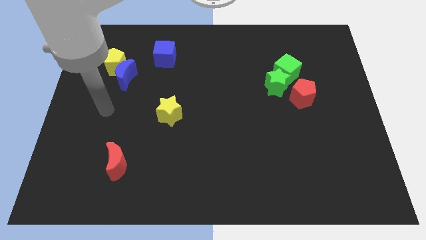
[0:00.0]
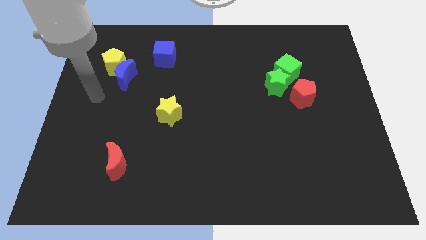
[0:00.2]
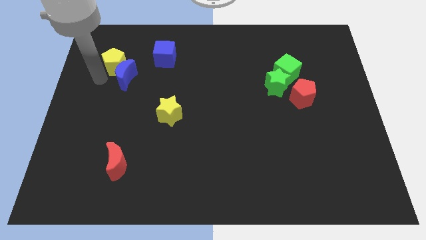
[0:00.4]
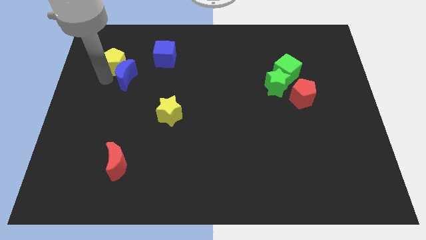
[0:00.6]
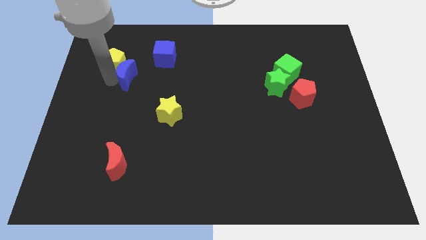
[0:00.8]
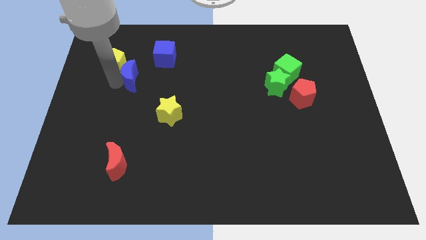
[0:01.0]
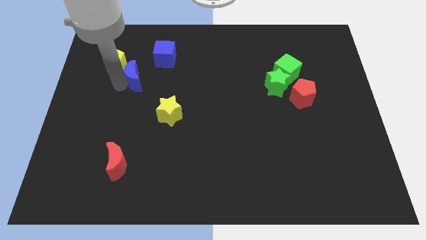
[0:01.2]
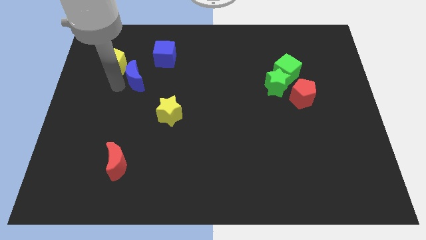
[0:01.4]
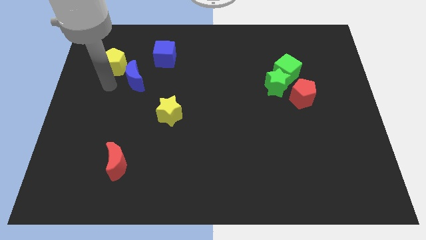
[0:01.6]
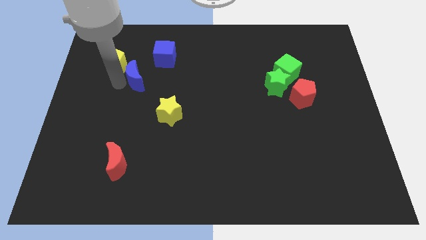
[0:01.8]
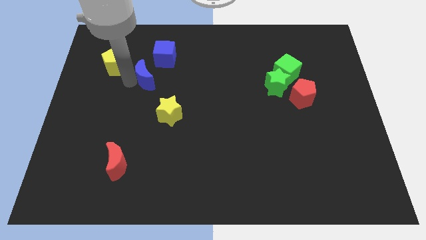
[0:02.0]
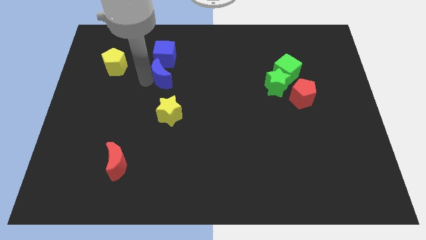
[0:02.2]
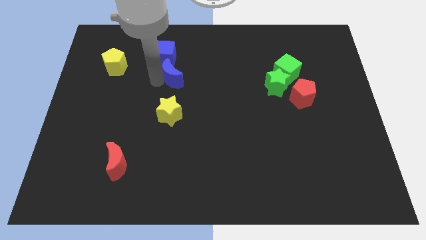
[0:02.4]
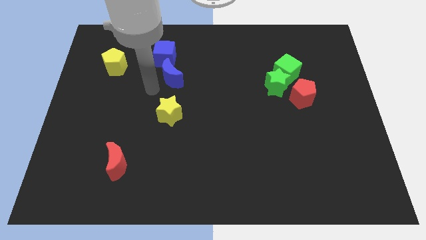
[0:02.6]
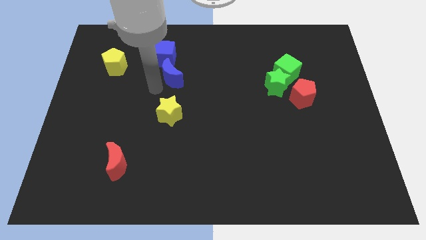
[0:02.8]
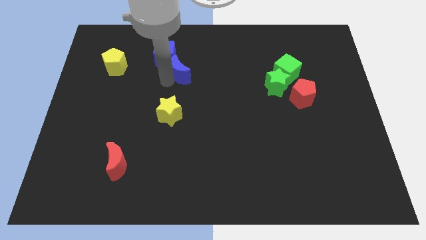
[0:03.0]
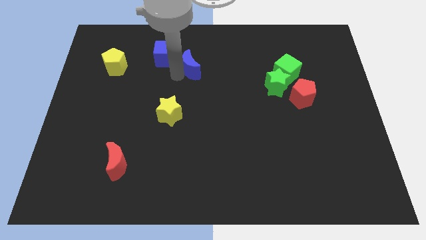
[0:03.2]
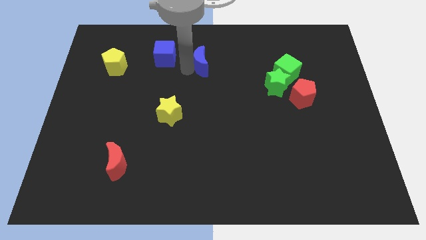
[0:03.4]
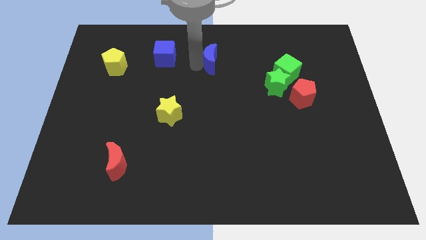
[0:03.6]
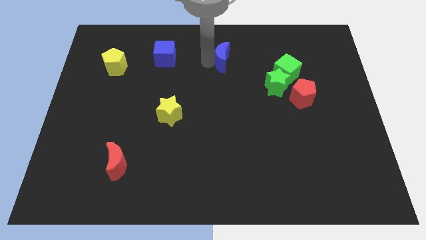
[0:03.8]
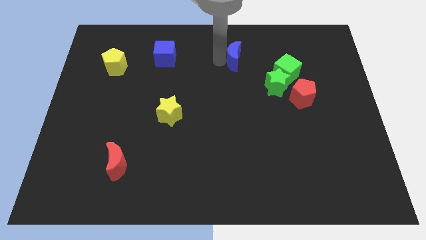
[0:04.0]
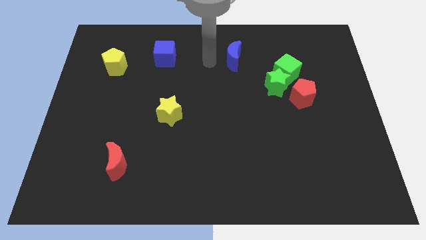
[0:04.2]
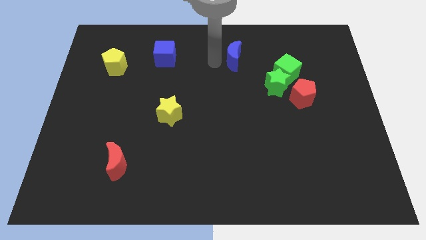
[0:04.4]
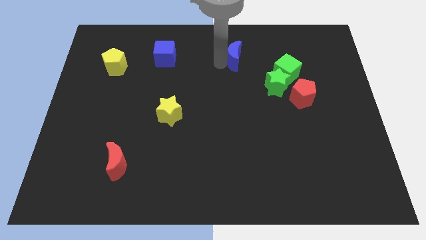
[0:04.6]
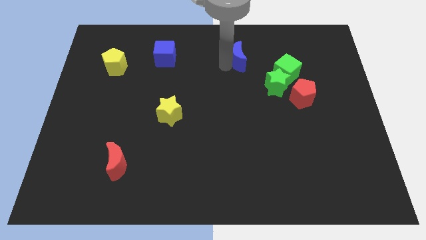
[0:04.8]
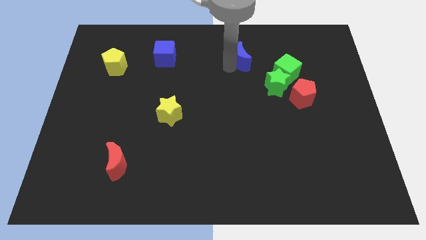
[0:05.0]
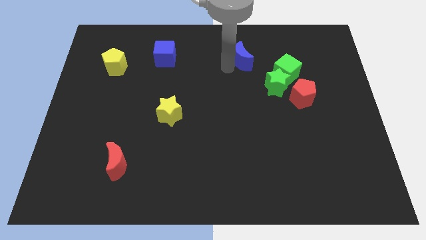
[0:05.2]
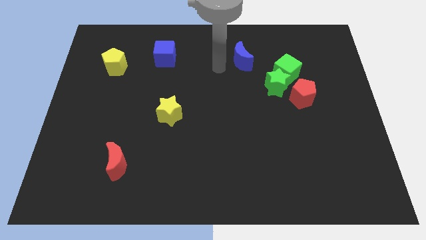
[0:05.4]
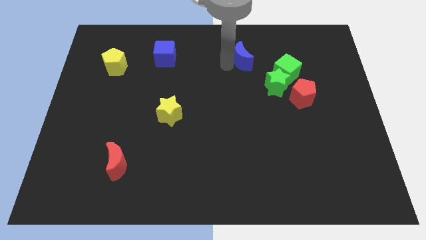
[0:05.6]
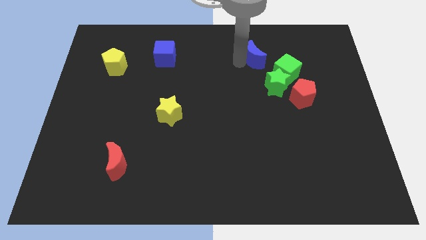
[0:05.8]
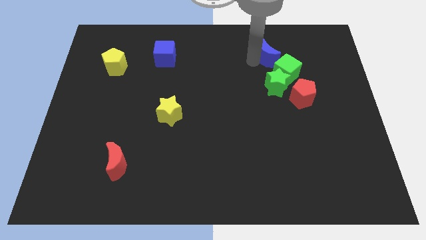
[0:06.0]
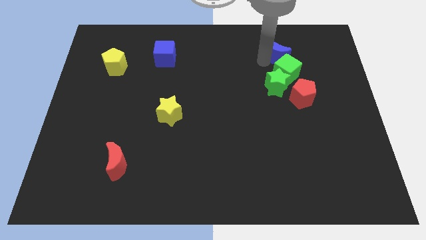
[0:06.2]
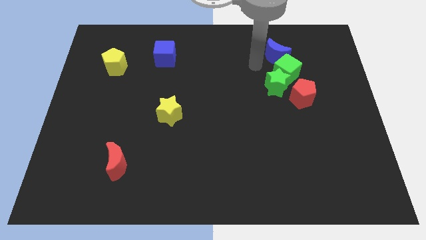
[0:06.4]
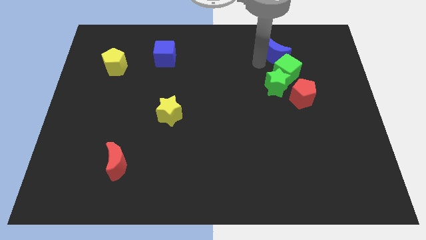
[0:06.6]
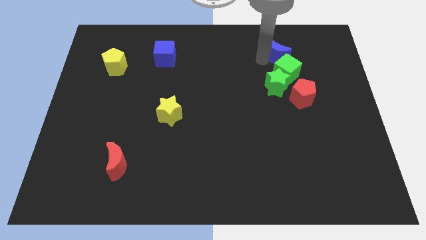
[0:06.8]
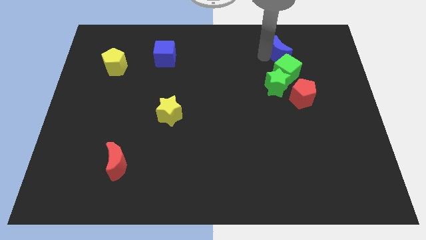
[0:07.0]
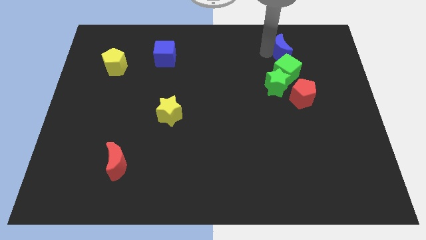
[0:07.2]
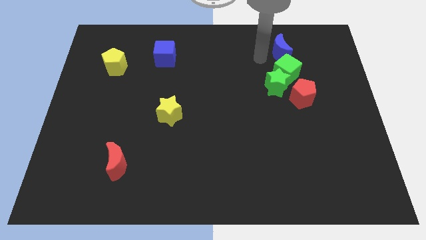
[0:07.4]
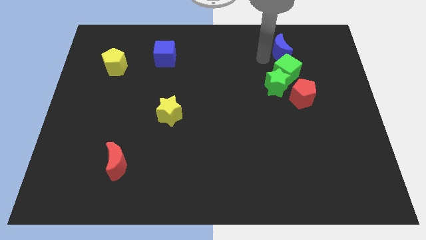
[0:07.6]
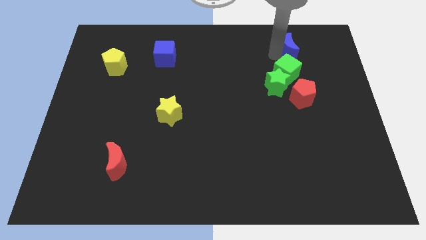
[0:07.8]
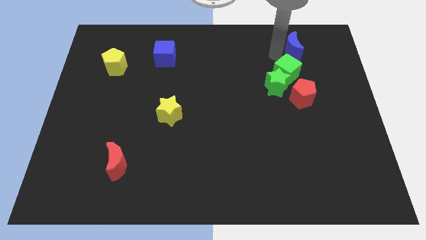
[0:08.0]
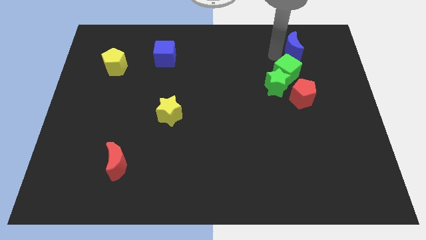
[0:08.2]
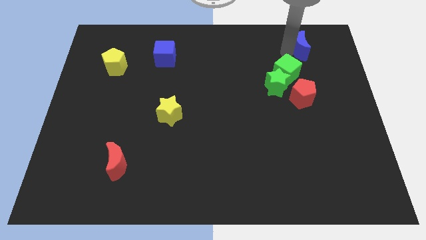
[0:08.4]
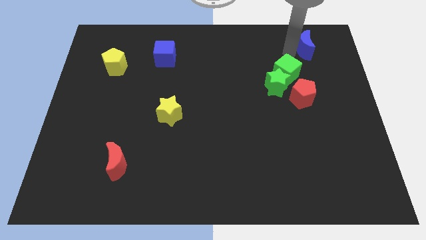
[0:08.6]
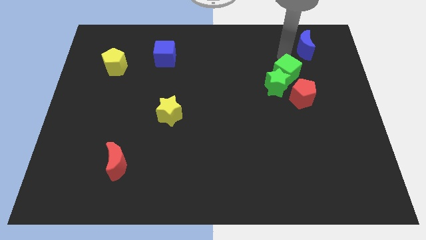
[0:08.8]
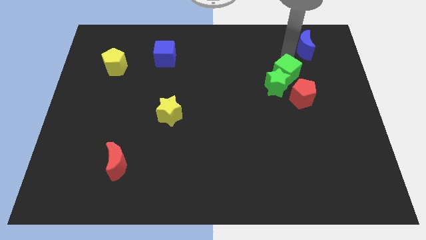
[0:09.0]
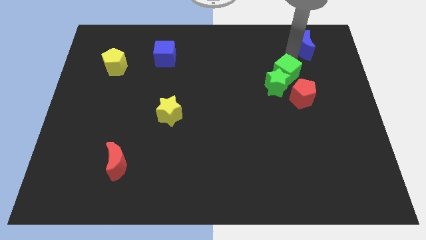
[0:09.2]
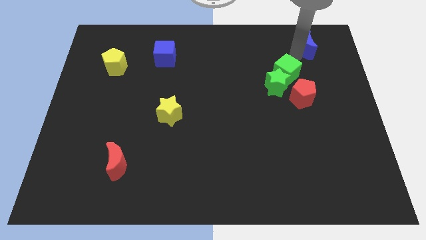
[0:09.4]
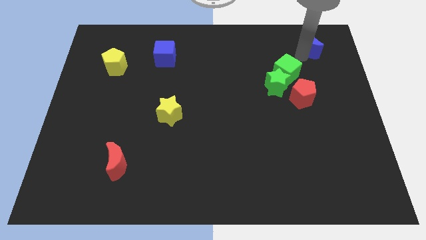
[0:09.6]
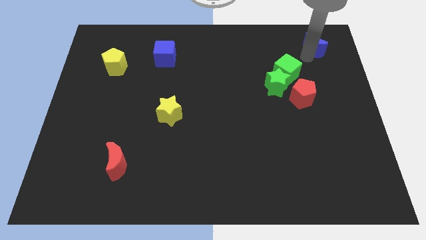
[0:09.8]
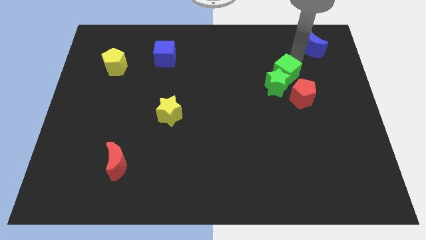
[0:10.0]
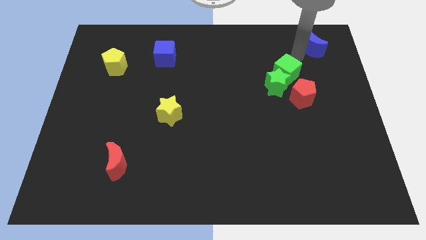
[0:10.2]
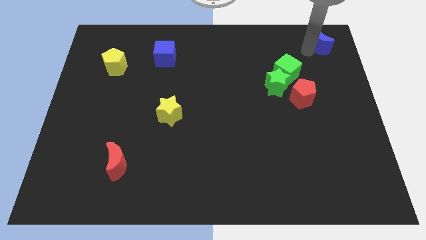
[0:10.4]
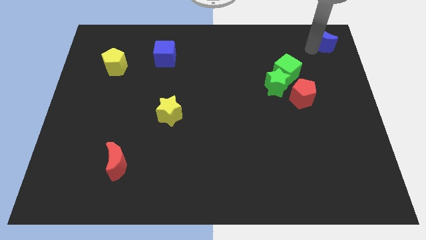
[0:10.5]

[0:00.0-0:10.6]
slide the blue moon to the upper right corner

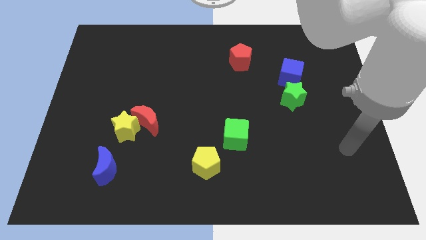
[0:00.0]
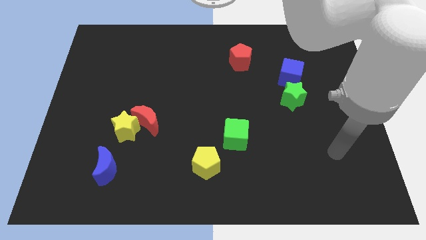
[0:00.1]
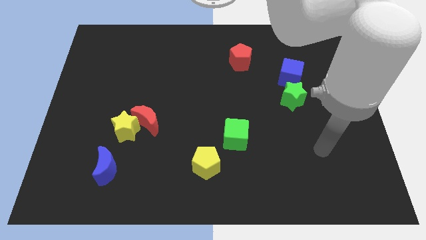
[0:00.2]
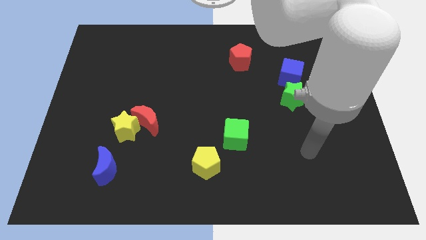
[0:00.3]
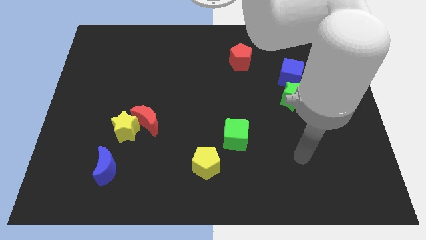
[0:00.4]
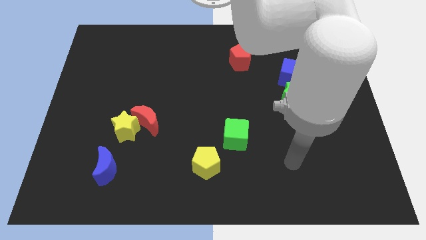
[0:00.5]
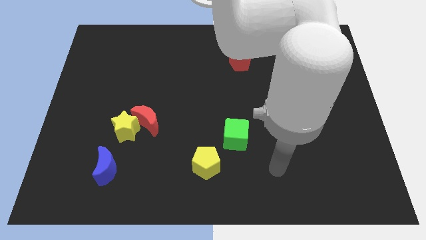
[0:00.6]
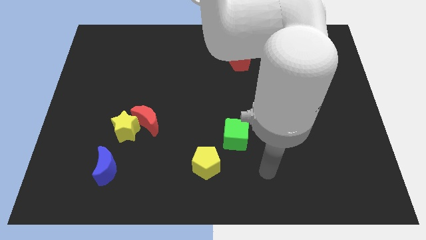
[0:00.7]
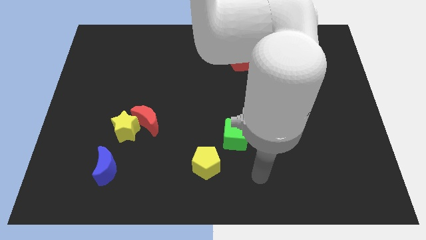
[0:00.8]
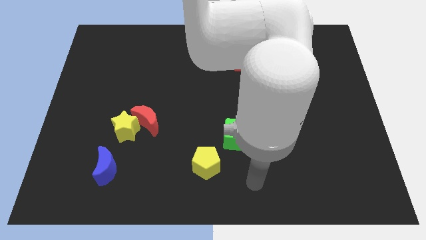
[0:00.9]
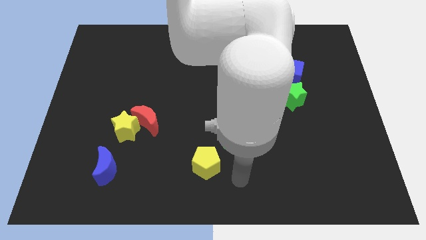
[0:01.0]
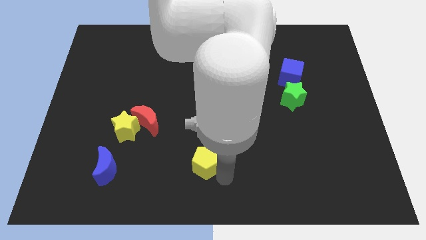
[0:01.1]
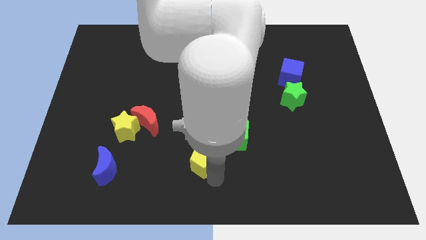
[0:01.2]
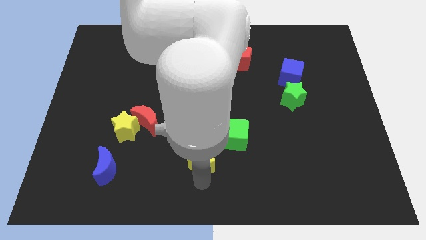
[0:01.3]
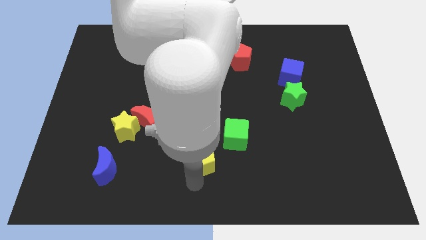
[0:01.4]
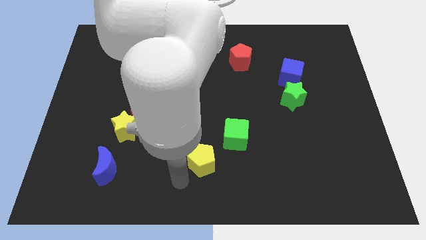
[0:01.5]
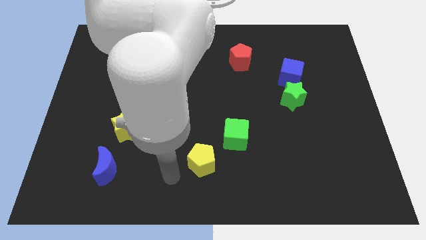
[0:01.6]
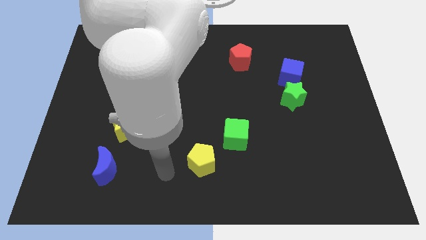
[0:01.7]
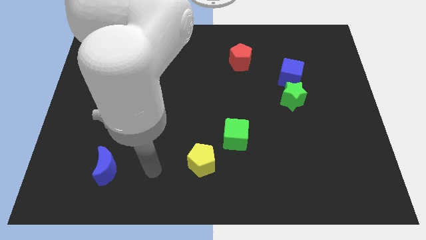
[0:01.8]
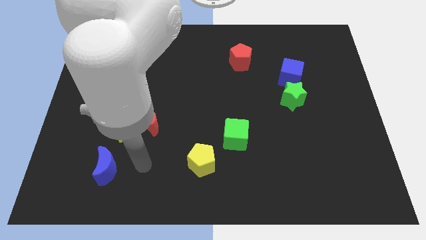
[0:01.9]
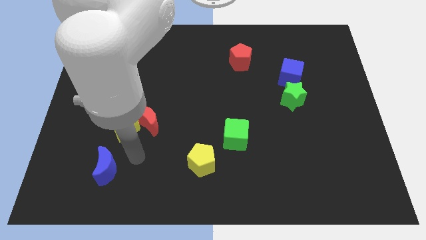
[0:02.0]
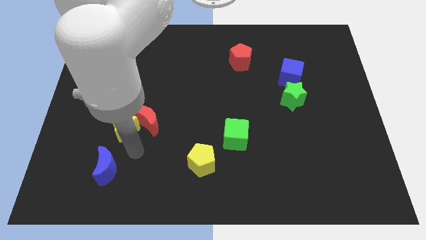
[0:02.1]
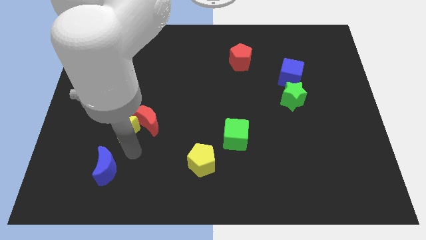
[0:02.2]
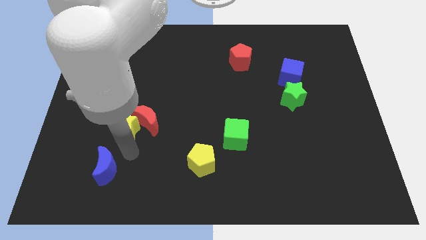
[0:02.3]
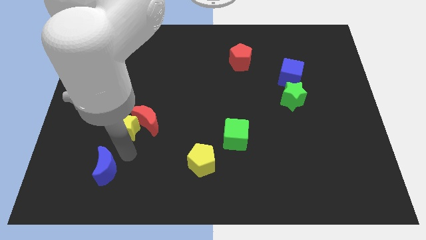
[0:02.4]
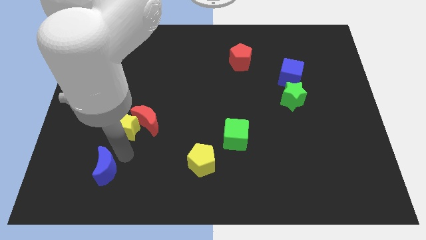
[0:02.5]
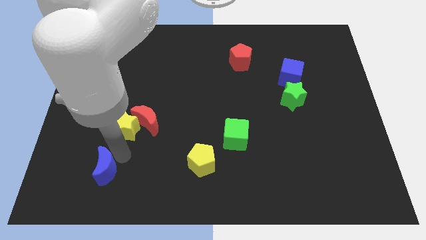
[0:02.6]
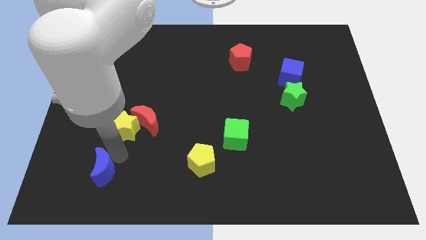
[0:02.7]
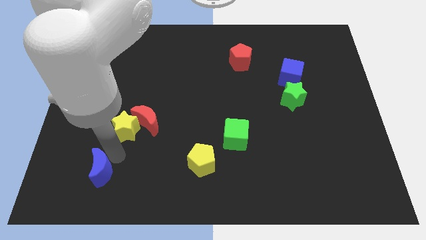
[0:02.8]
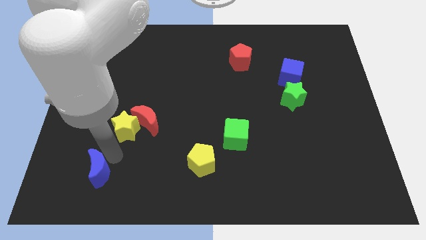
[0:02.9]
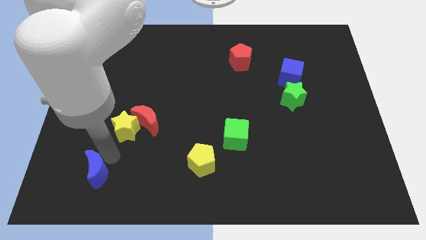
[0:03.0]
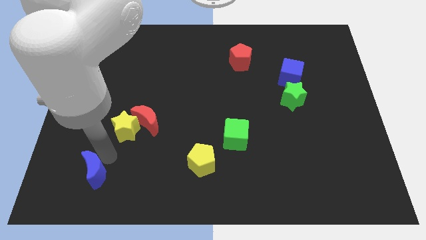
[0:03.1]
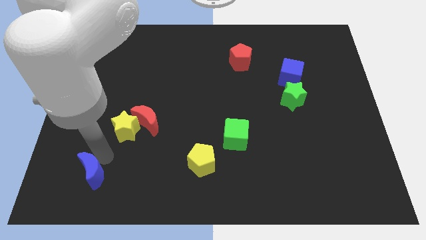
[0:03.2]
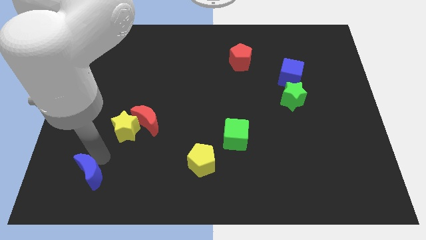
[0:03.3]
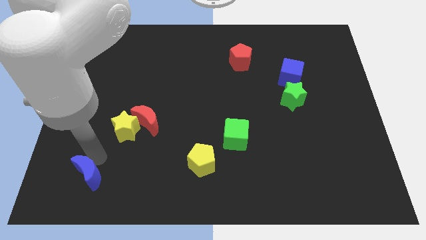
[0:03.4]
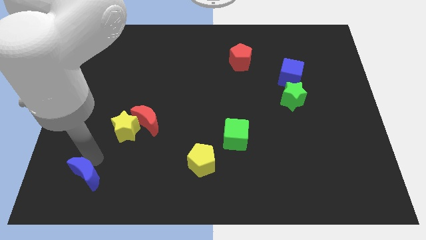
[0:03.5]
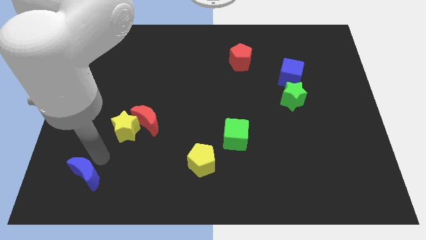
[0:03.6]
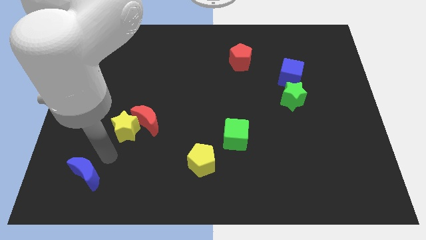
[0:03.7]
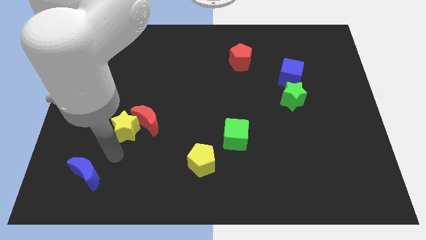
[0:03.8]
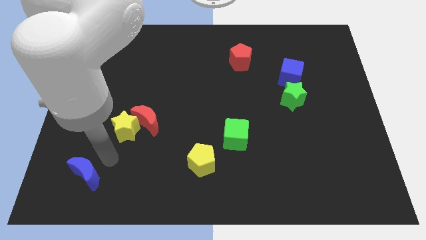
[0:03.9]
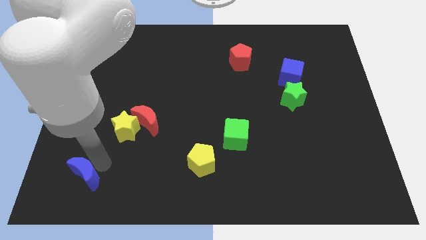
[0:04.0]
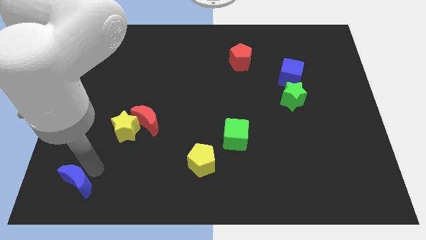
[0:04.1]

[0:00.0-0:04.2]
put the blue moon to the bottom left corner
